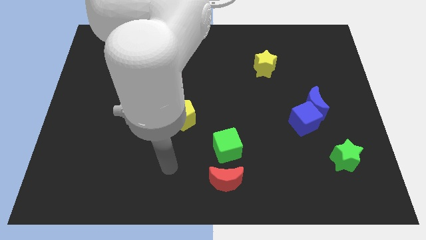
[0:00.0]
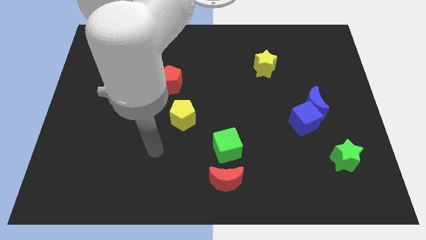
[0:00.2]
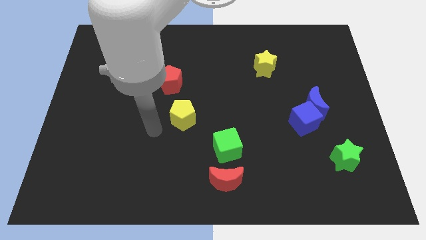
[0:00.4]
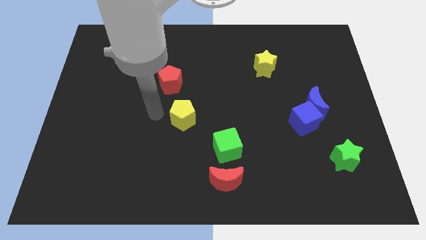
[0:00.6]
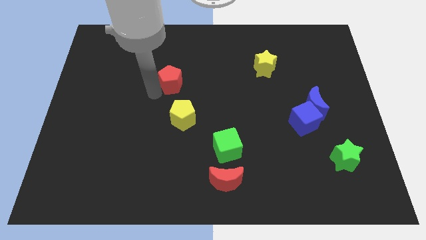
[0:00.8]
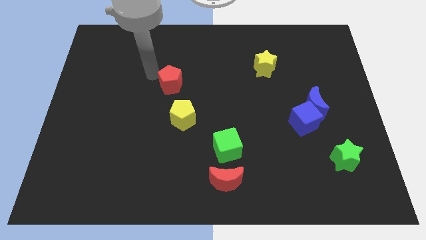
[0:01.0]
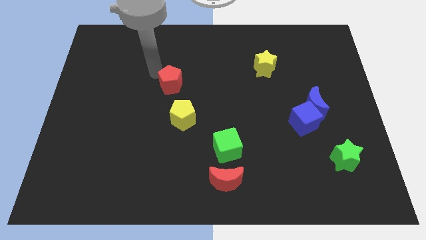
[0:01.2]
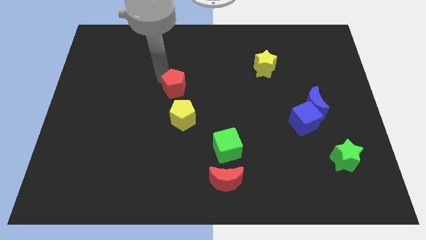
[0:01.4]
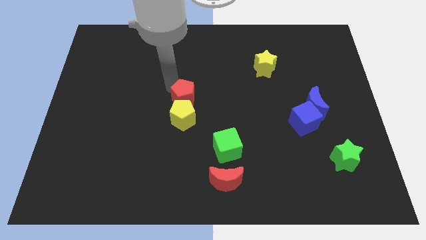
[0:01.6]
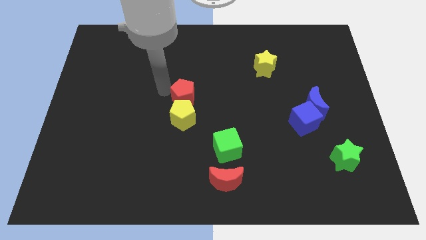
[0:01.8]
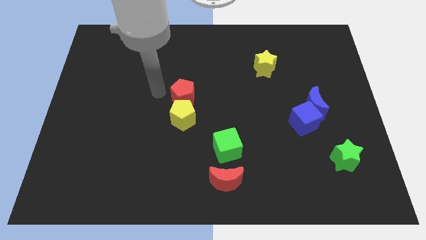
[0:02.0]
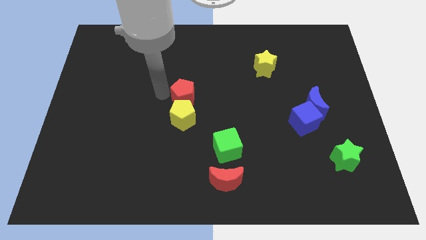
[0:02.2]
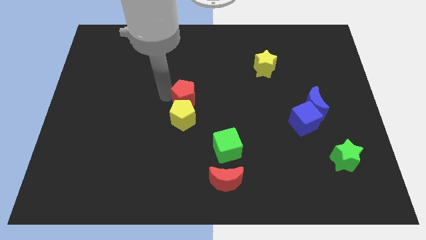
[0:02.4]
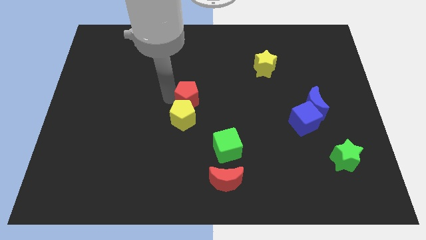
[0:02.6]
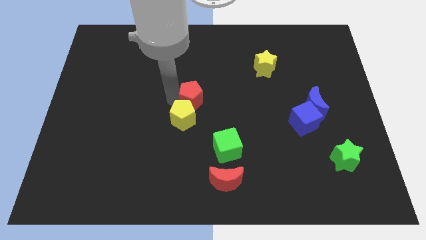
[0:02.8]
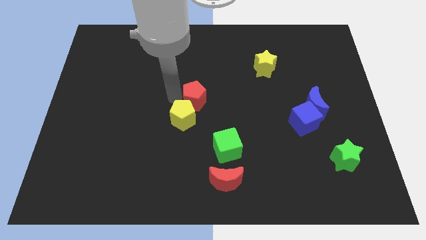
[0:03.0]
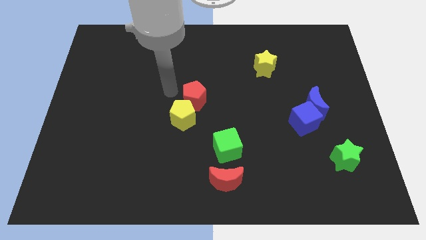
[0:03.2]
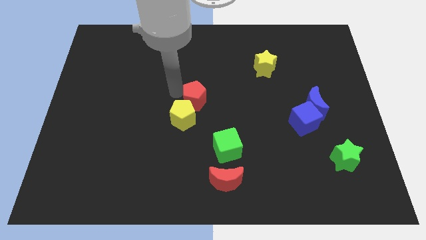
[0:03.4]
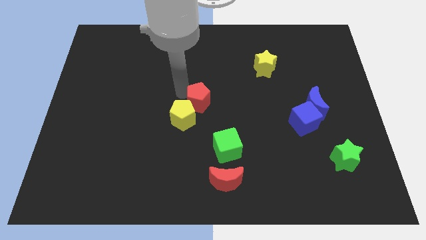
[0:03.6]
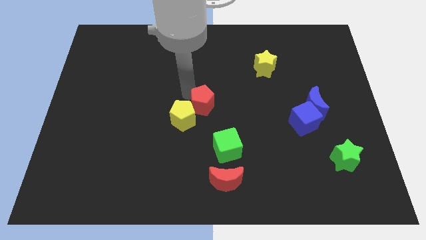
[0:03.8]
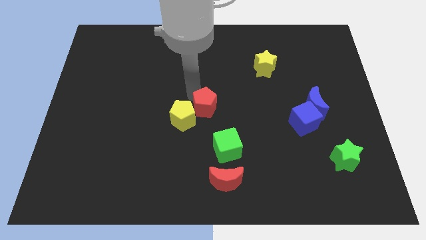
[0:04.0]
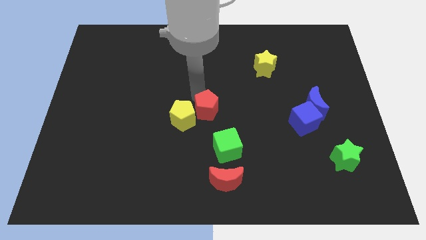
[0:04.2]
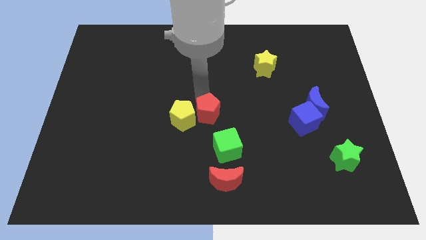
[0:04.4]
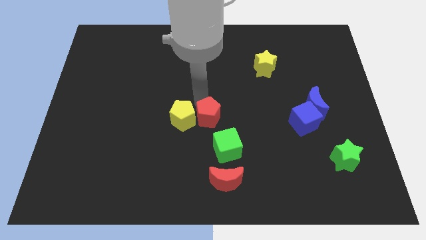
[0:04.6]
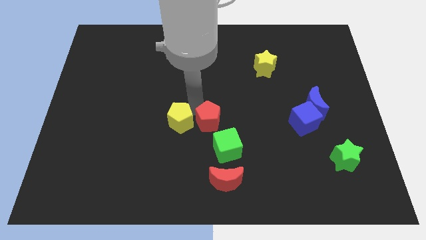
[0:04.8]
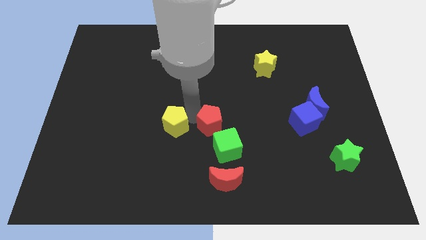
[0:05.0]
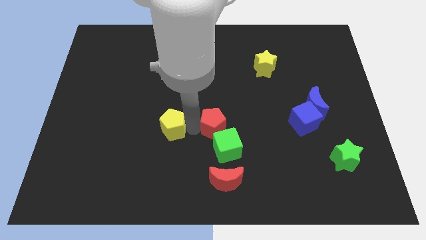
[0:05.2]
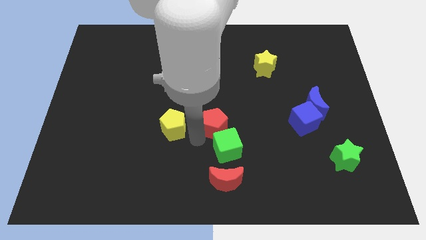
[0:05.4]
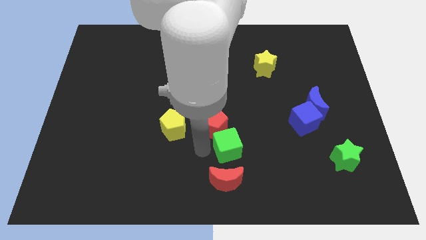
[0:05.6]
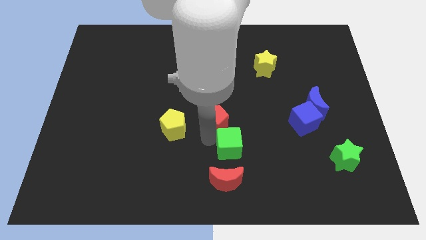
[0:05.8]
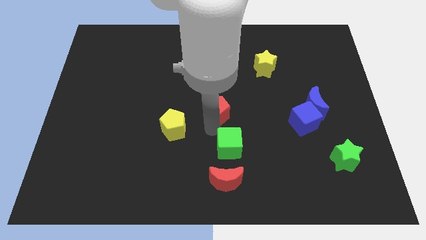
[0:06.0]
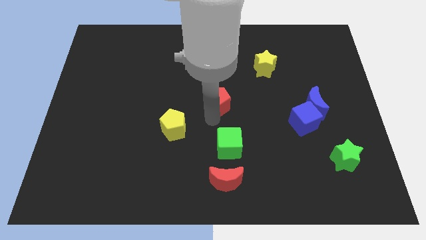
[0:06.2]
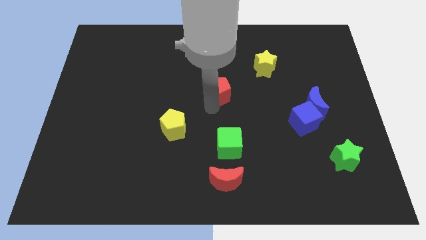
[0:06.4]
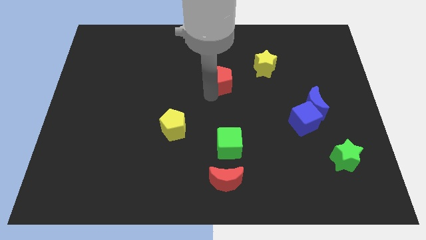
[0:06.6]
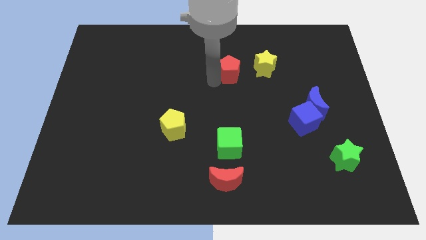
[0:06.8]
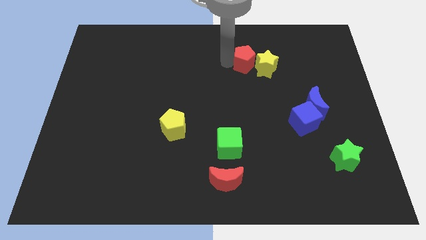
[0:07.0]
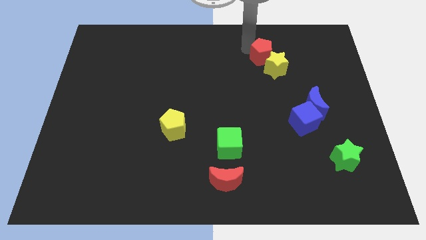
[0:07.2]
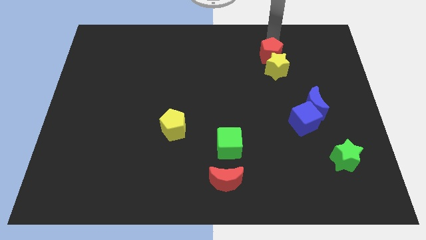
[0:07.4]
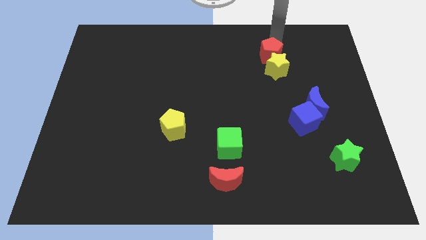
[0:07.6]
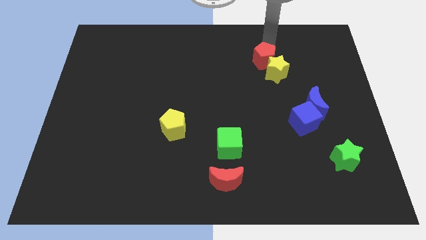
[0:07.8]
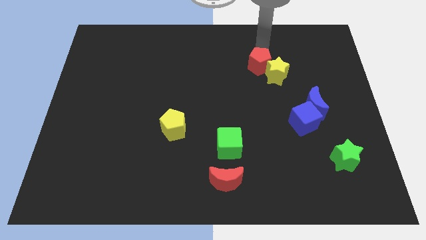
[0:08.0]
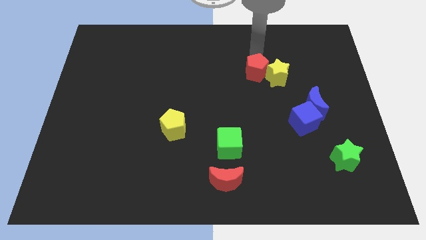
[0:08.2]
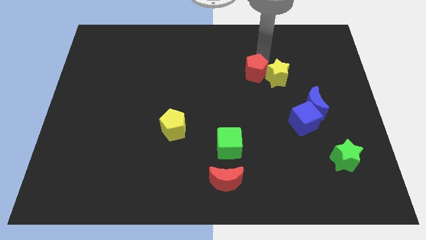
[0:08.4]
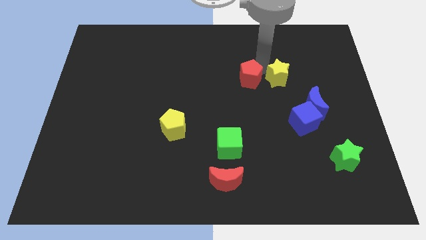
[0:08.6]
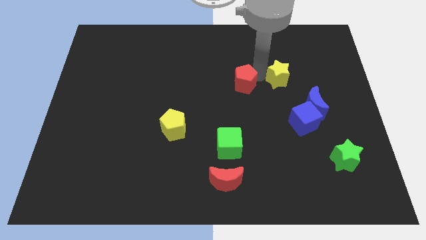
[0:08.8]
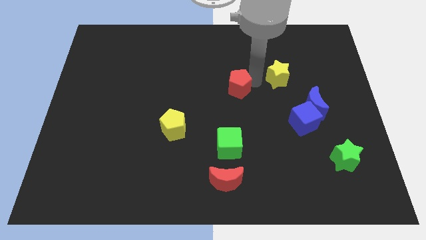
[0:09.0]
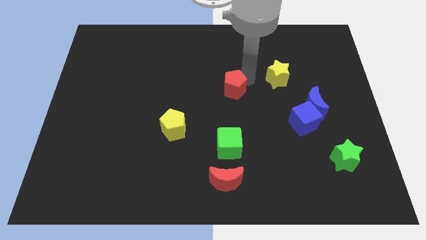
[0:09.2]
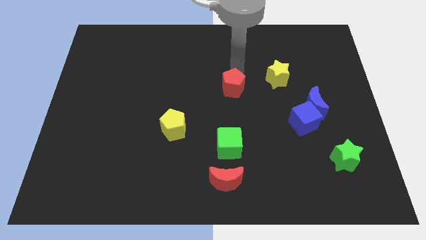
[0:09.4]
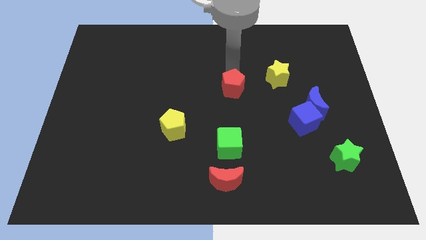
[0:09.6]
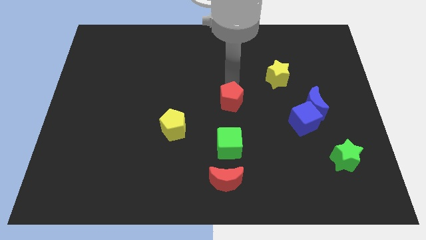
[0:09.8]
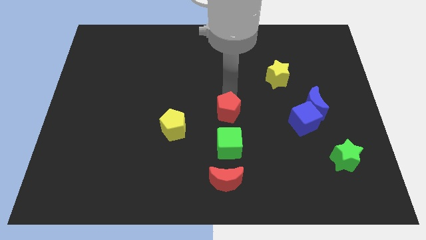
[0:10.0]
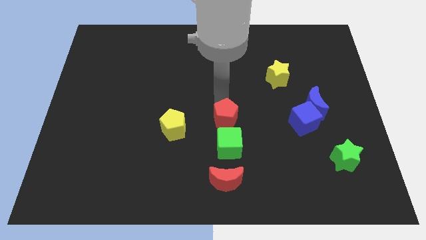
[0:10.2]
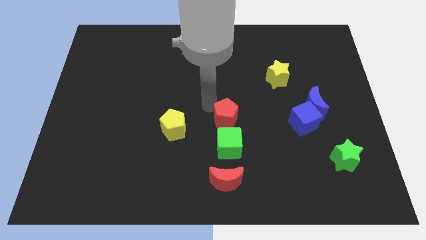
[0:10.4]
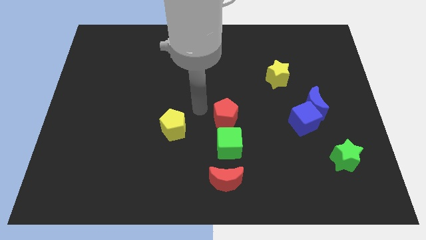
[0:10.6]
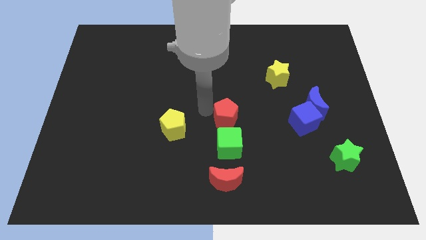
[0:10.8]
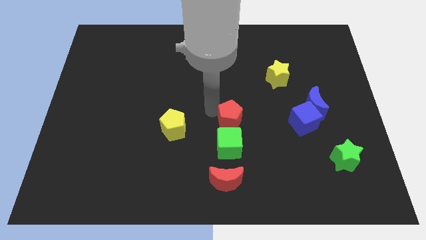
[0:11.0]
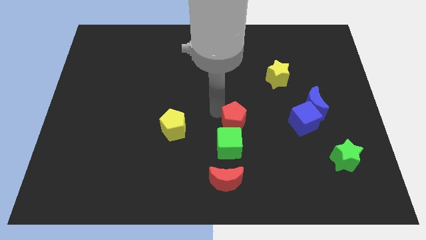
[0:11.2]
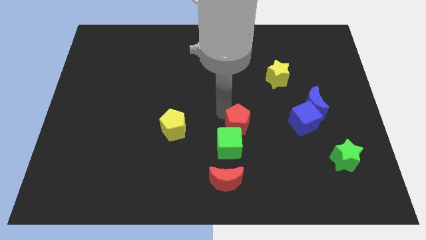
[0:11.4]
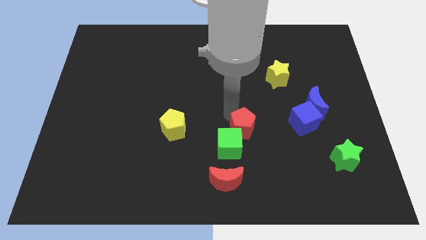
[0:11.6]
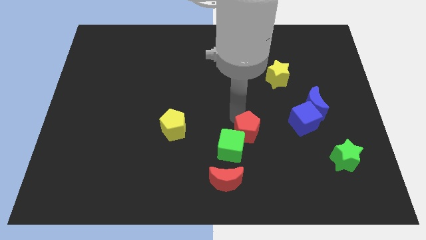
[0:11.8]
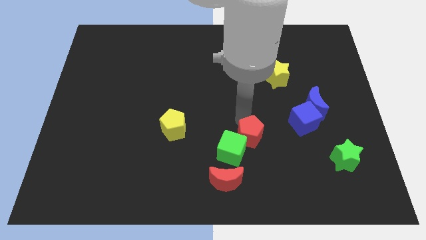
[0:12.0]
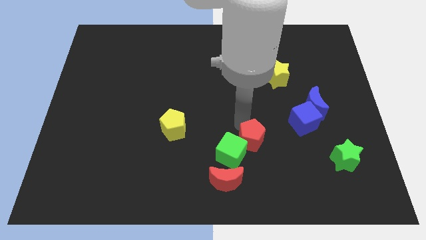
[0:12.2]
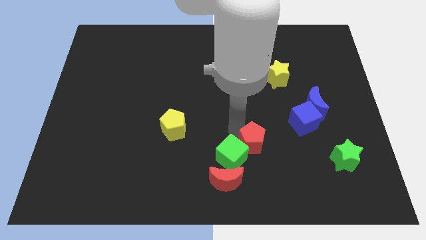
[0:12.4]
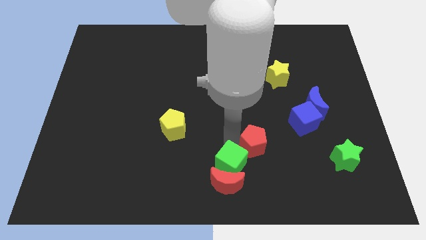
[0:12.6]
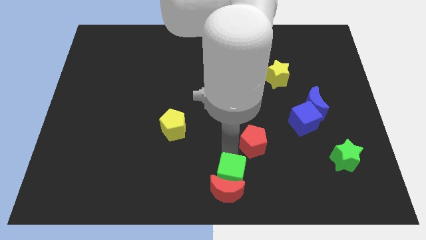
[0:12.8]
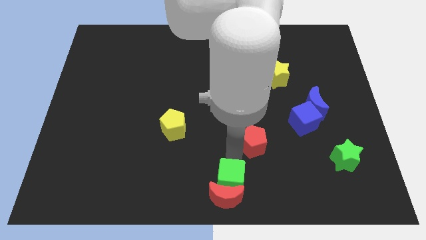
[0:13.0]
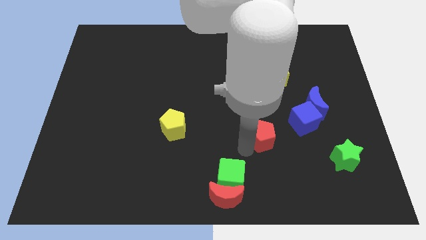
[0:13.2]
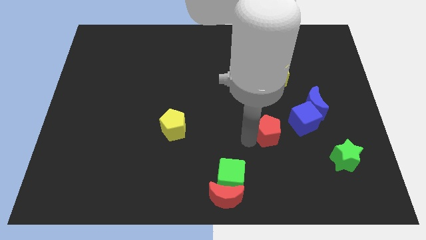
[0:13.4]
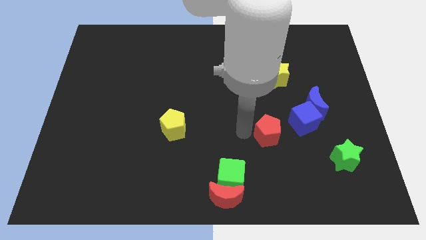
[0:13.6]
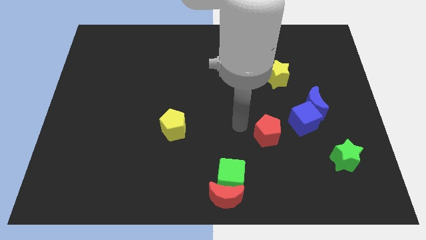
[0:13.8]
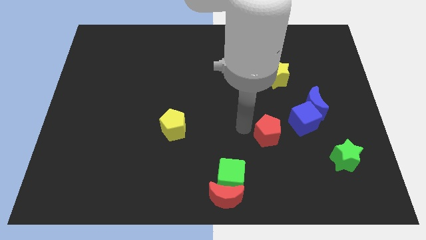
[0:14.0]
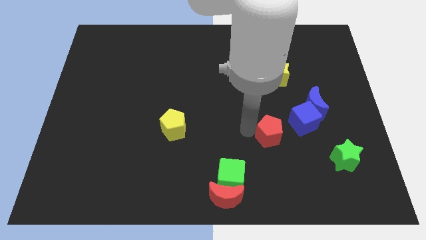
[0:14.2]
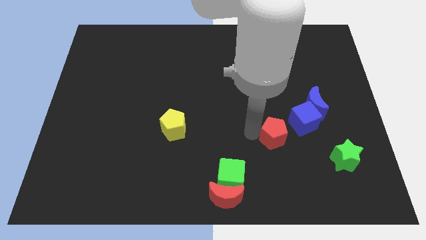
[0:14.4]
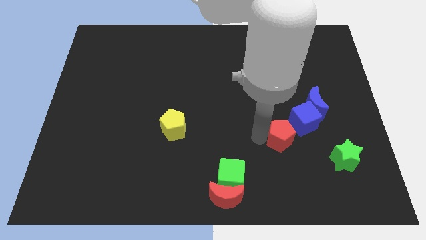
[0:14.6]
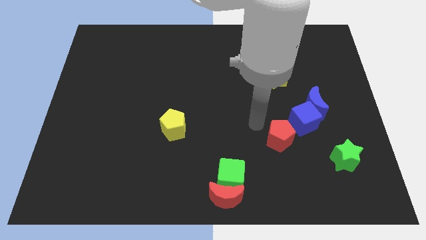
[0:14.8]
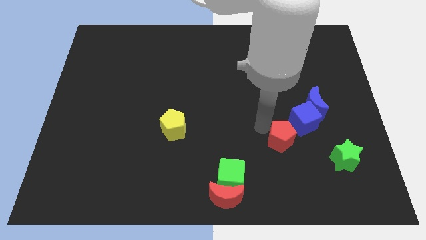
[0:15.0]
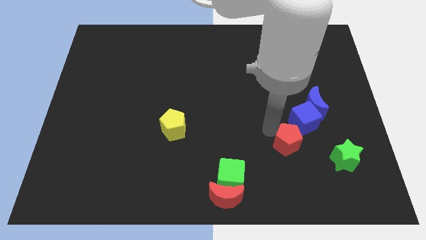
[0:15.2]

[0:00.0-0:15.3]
move the red pentagon below the blue cube

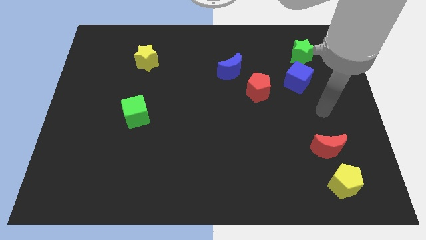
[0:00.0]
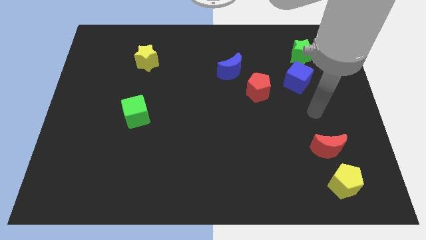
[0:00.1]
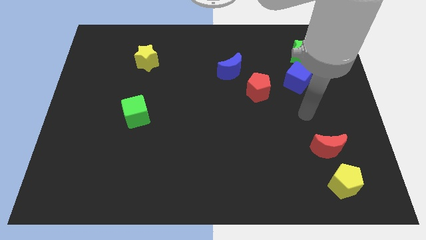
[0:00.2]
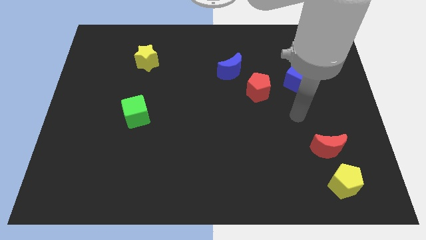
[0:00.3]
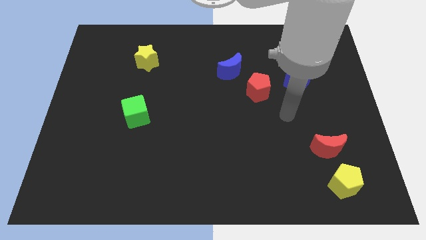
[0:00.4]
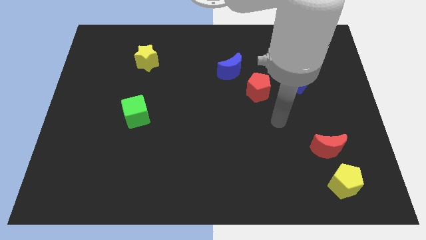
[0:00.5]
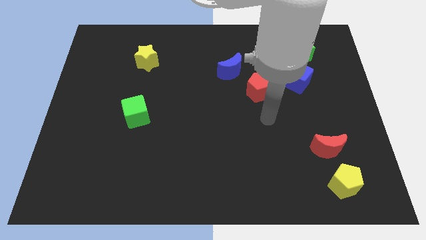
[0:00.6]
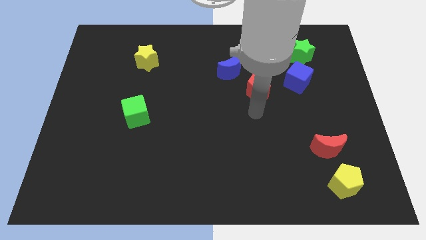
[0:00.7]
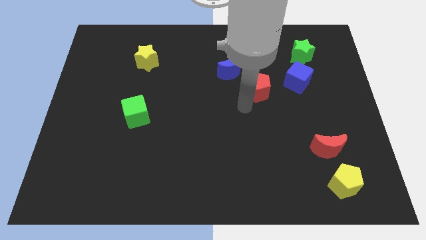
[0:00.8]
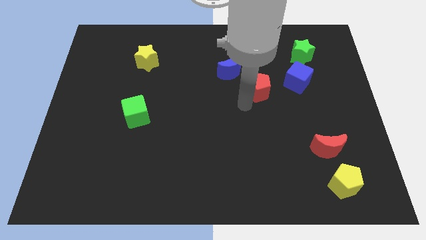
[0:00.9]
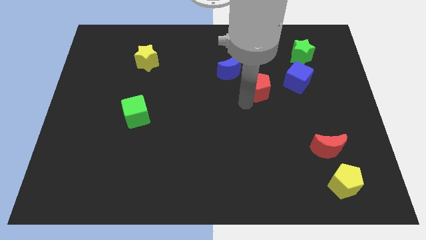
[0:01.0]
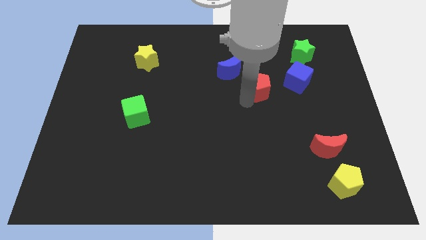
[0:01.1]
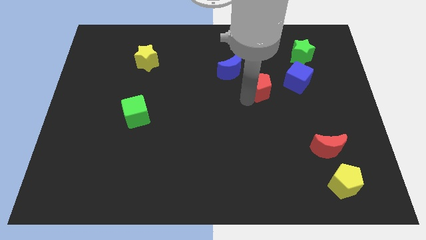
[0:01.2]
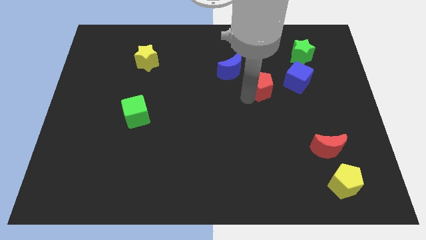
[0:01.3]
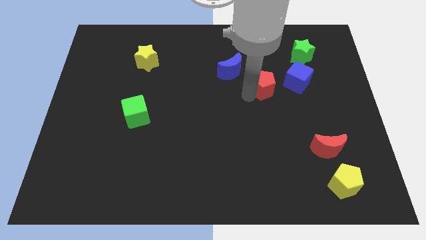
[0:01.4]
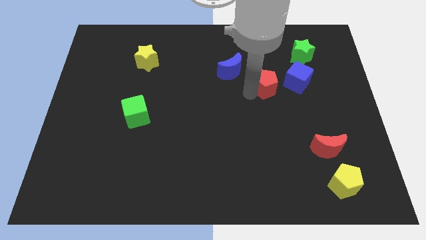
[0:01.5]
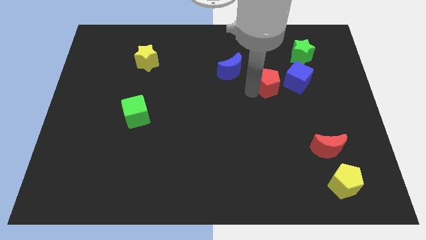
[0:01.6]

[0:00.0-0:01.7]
push the red pentagon to the right of the blue moon
